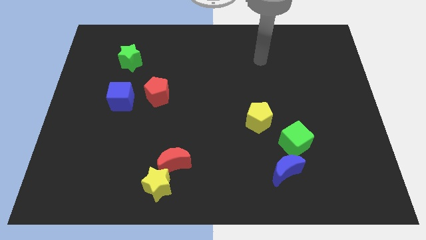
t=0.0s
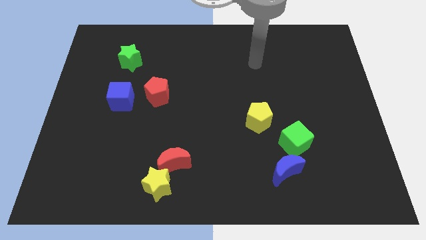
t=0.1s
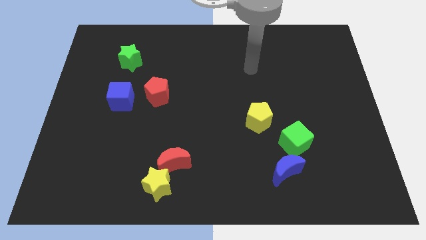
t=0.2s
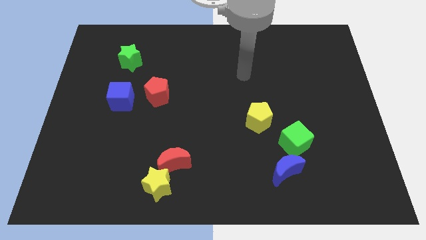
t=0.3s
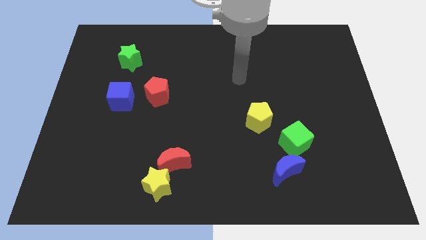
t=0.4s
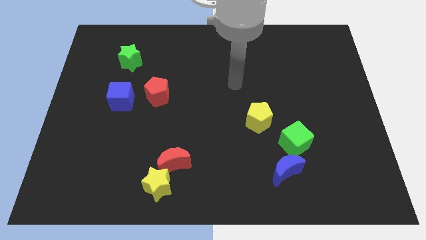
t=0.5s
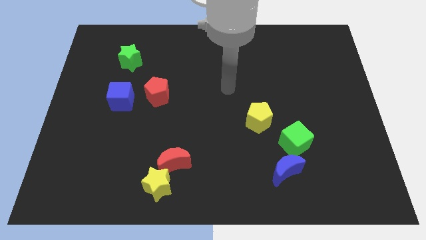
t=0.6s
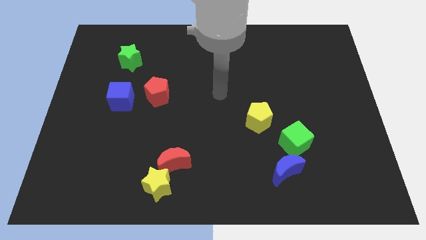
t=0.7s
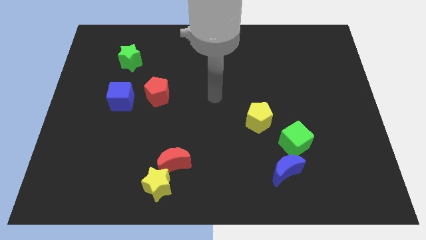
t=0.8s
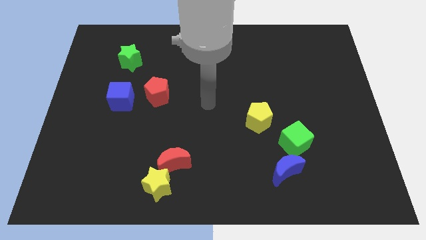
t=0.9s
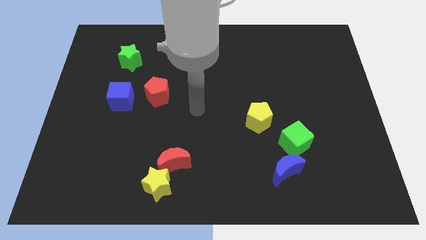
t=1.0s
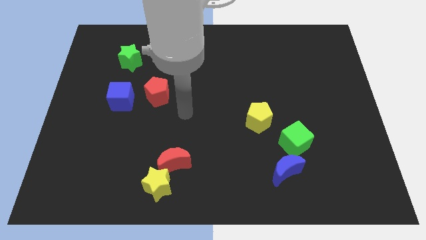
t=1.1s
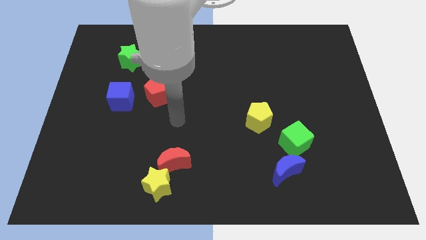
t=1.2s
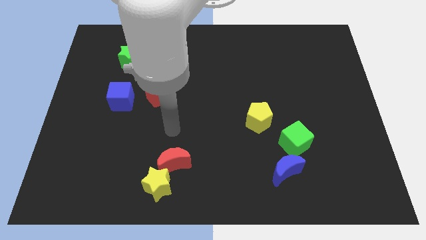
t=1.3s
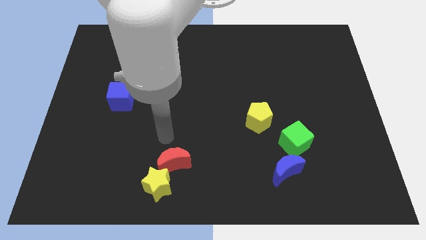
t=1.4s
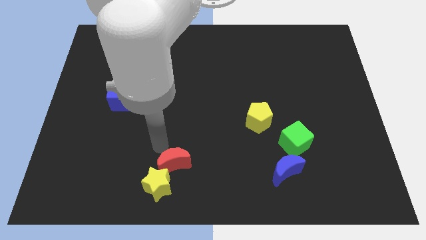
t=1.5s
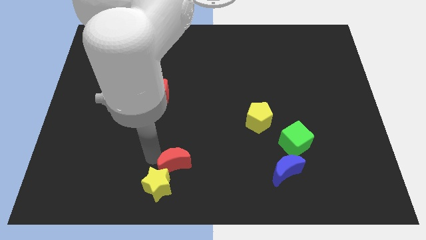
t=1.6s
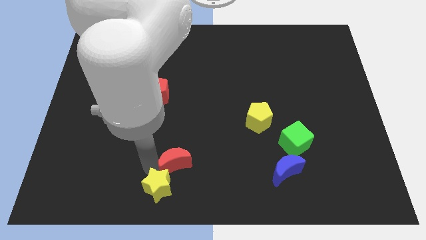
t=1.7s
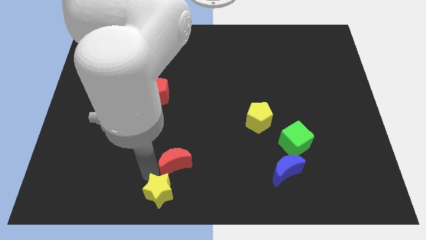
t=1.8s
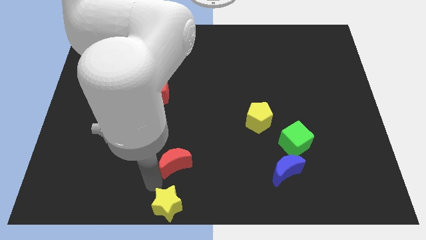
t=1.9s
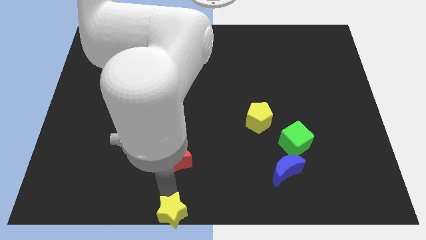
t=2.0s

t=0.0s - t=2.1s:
separate the red moon from the yellow star

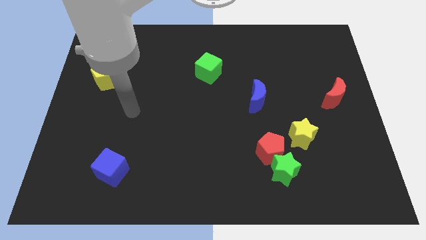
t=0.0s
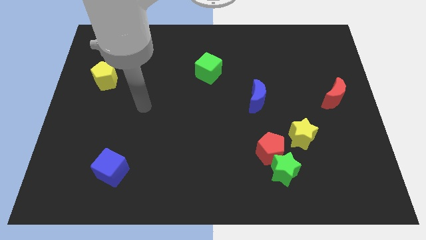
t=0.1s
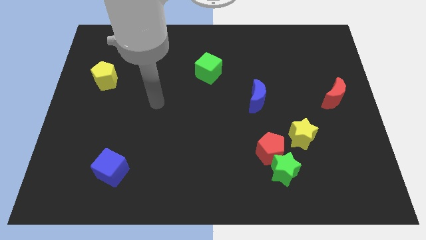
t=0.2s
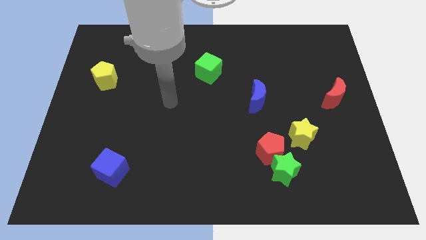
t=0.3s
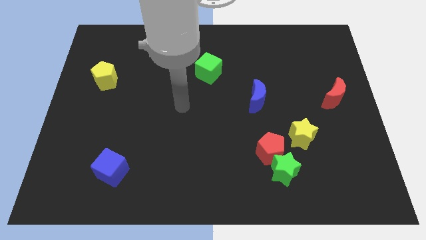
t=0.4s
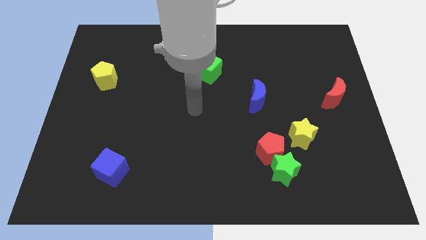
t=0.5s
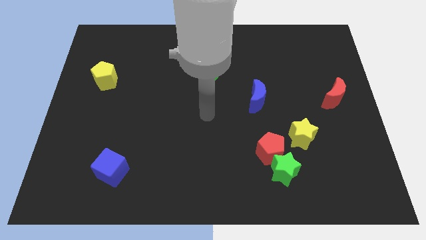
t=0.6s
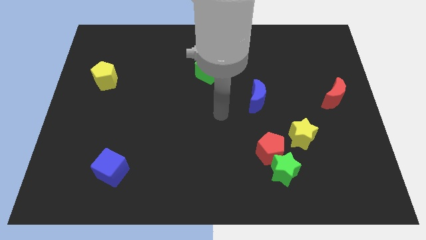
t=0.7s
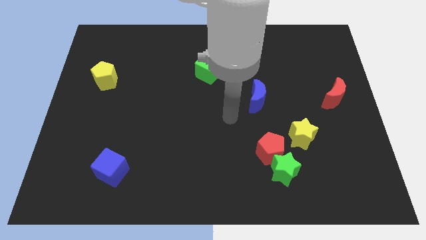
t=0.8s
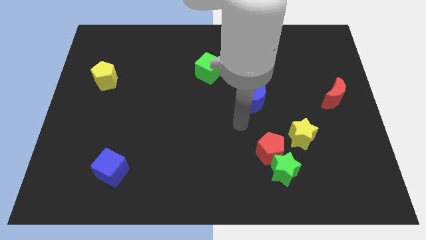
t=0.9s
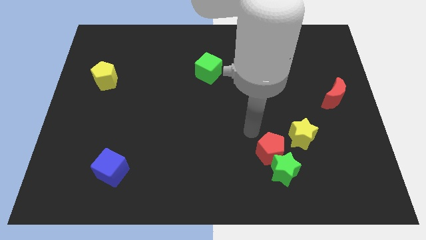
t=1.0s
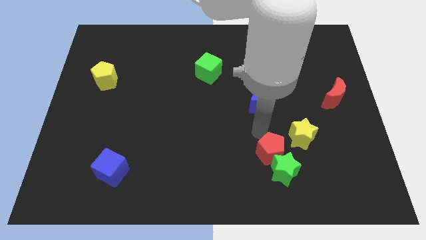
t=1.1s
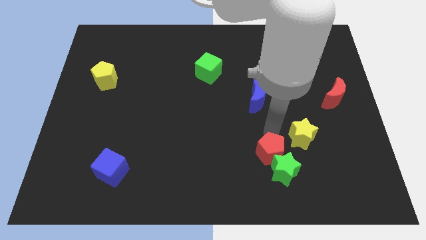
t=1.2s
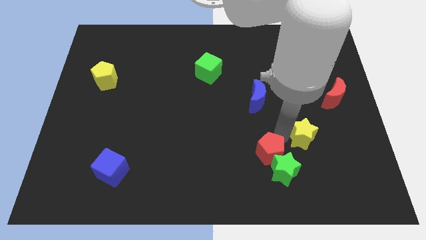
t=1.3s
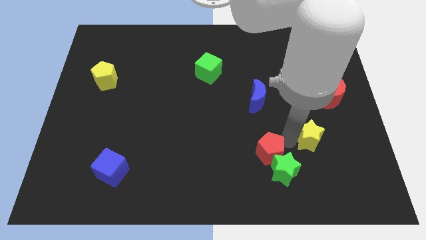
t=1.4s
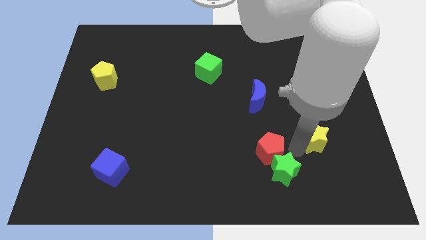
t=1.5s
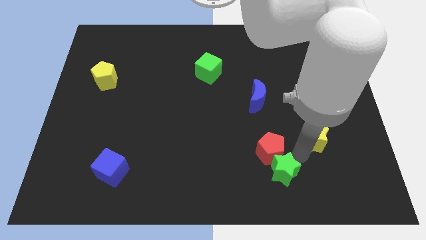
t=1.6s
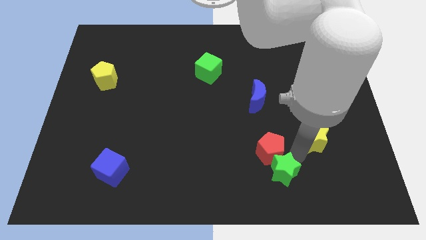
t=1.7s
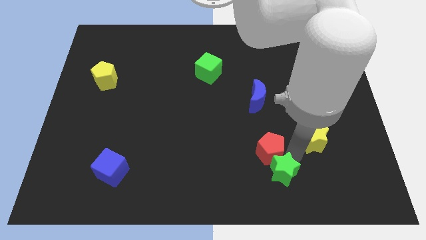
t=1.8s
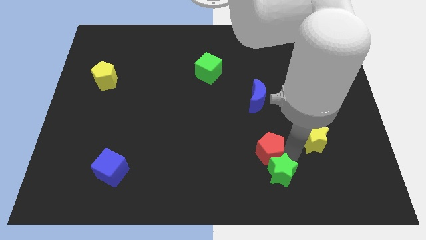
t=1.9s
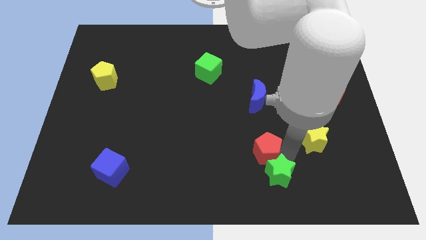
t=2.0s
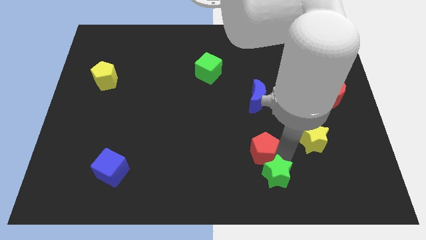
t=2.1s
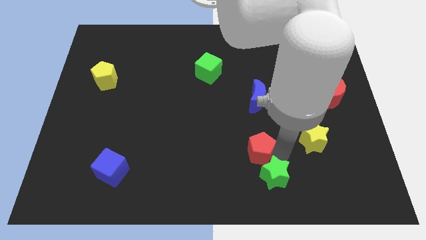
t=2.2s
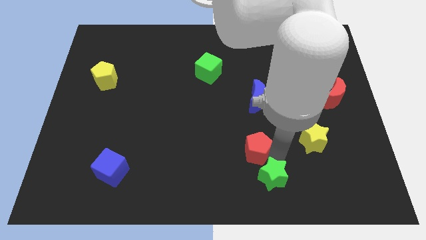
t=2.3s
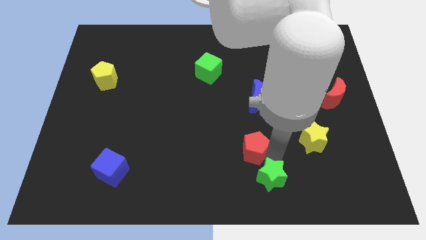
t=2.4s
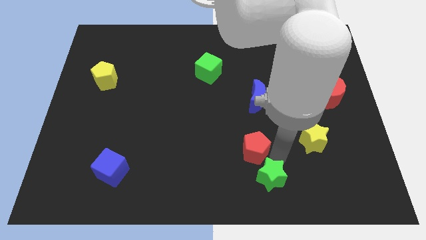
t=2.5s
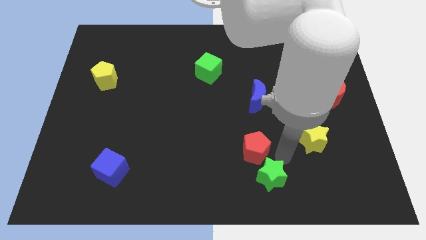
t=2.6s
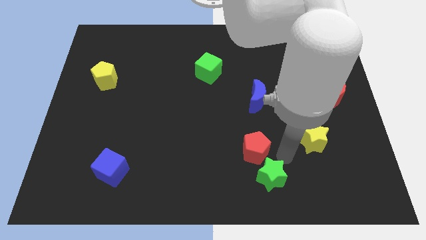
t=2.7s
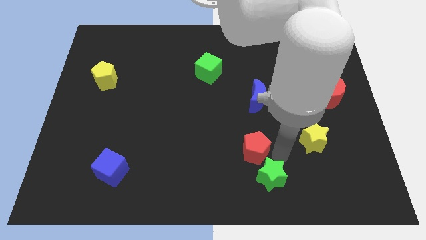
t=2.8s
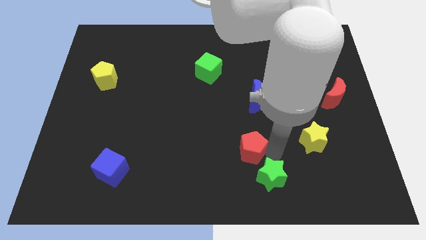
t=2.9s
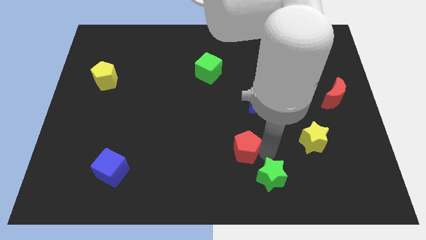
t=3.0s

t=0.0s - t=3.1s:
separate the red pentagon from the green star and yellow star

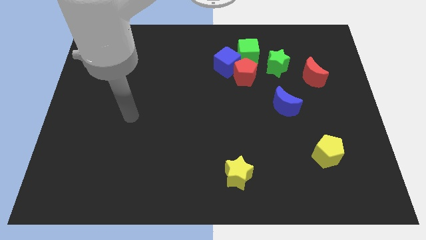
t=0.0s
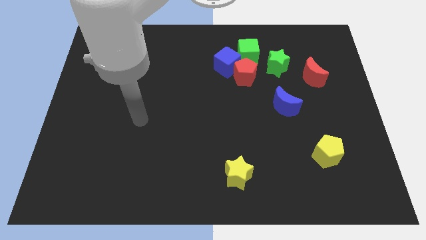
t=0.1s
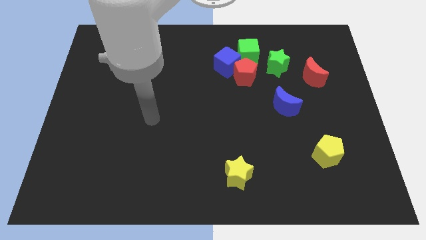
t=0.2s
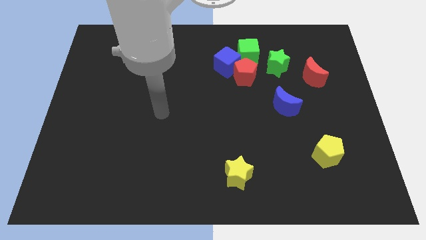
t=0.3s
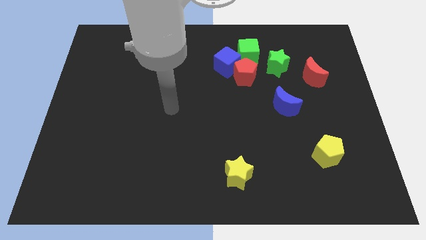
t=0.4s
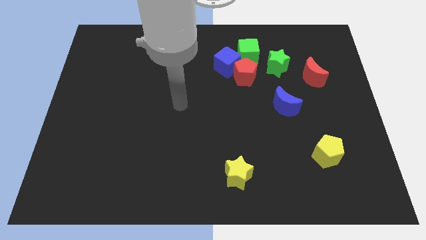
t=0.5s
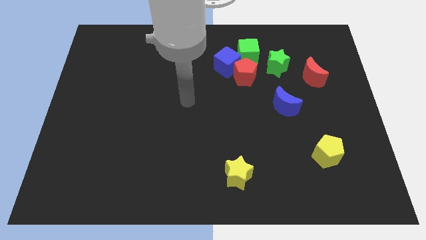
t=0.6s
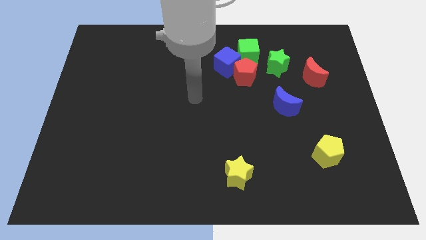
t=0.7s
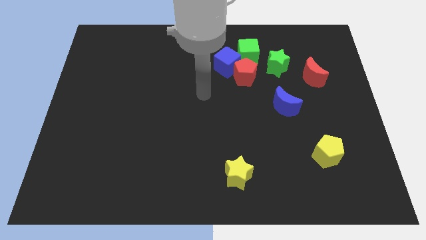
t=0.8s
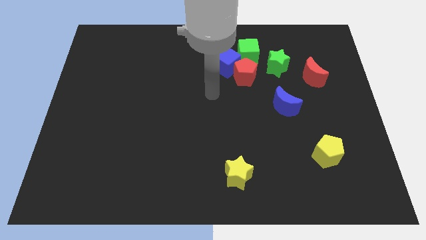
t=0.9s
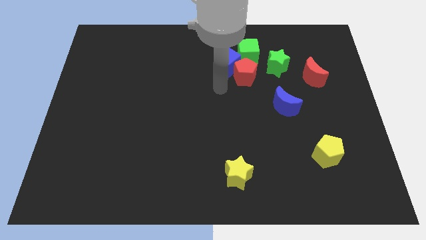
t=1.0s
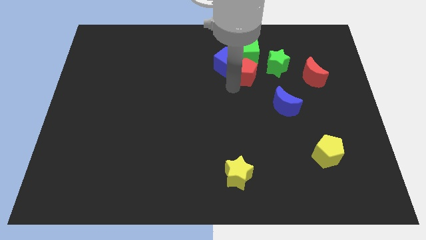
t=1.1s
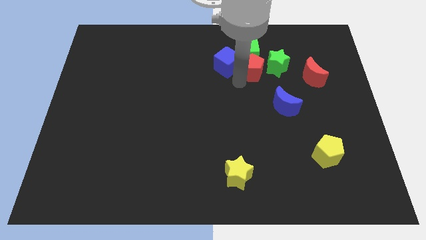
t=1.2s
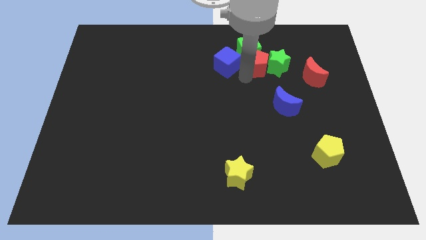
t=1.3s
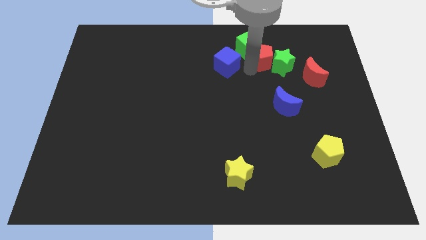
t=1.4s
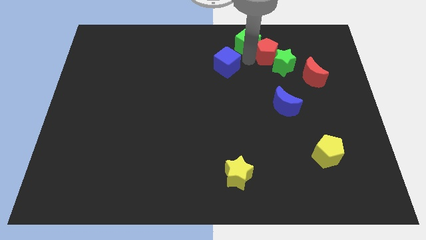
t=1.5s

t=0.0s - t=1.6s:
pull the blue cube apart from the red pentagon and green cube

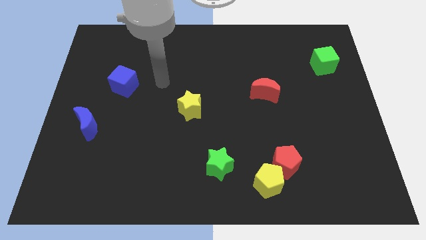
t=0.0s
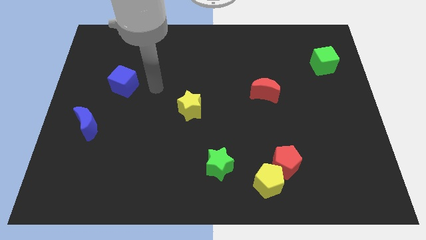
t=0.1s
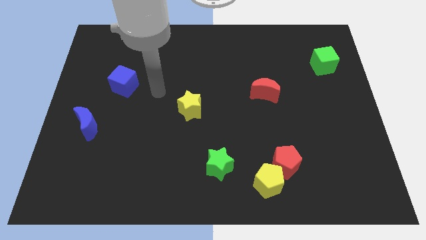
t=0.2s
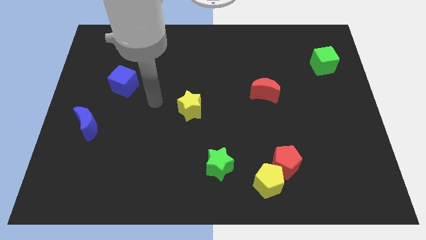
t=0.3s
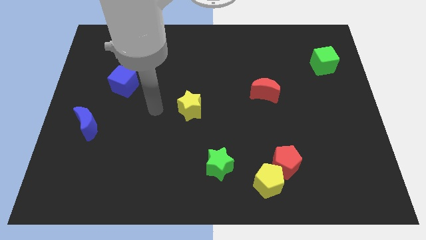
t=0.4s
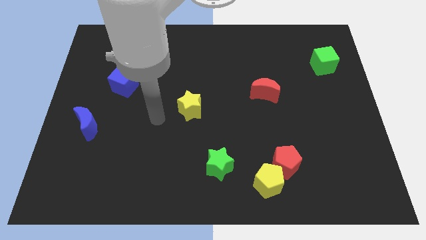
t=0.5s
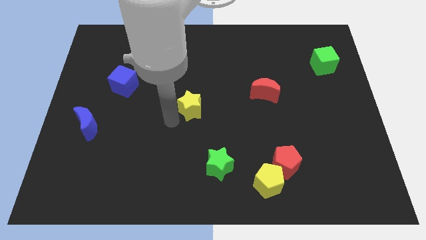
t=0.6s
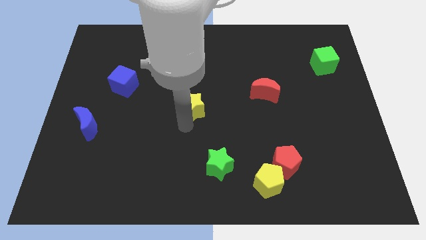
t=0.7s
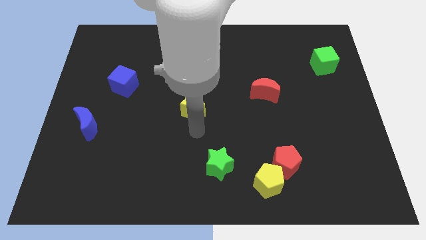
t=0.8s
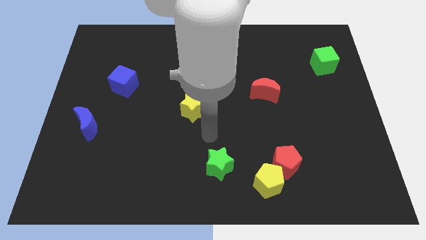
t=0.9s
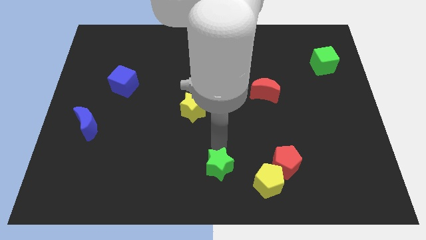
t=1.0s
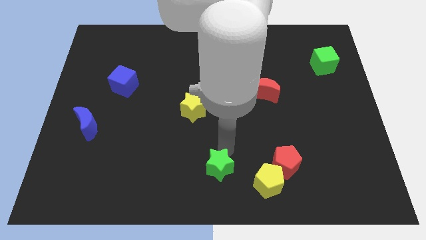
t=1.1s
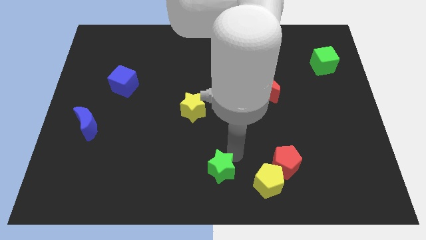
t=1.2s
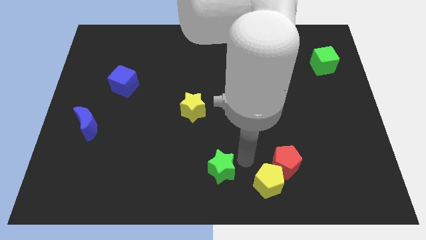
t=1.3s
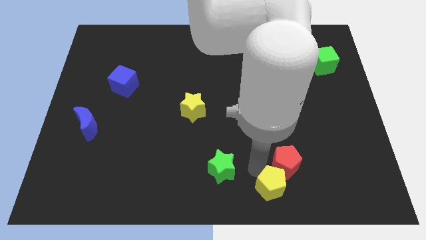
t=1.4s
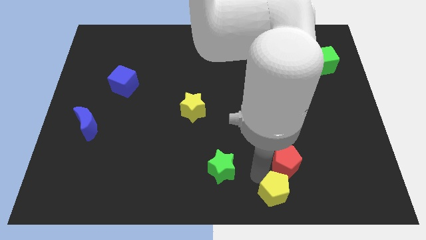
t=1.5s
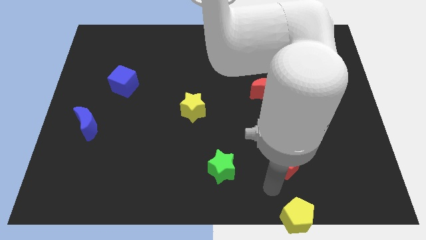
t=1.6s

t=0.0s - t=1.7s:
separate the red pentagon from the yellow pentagon

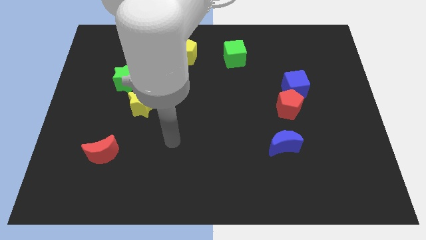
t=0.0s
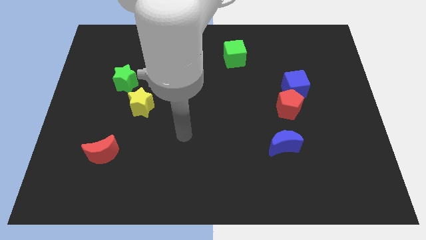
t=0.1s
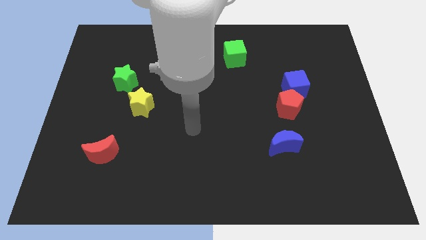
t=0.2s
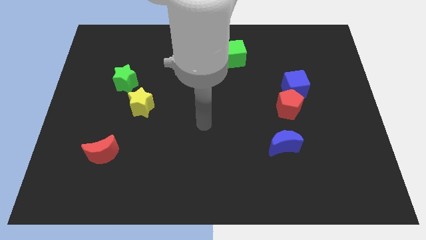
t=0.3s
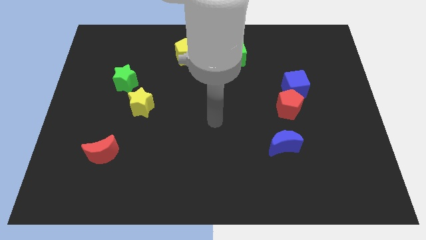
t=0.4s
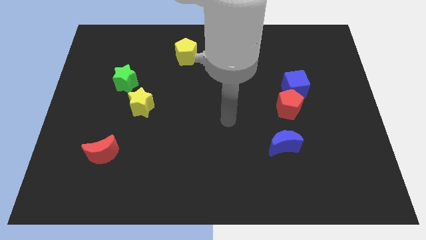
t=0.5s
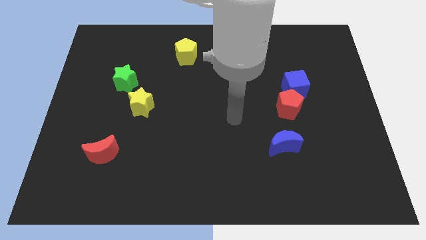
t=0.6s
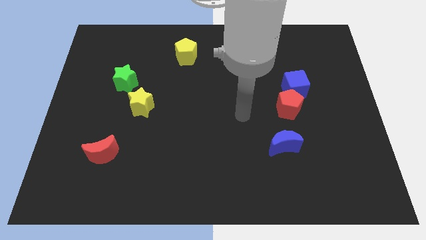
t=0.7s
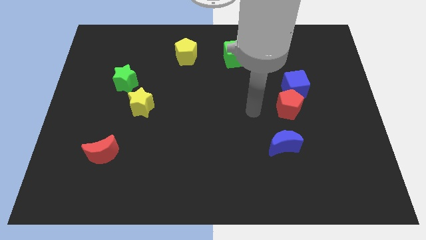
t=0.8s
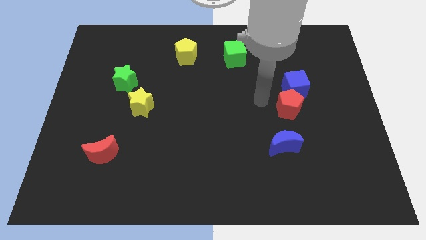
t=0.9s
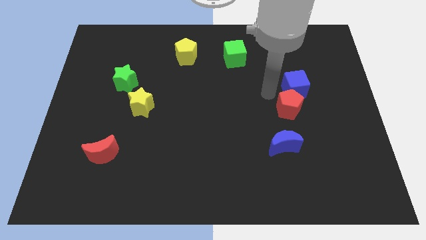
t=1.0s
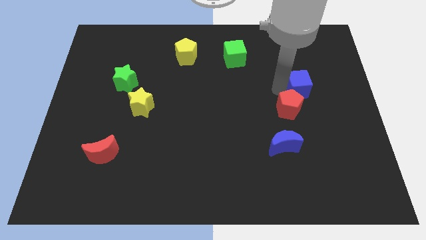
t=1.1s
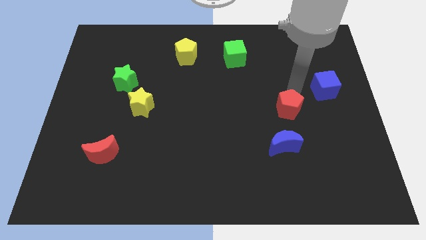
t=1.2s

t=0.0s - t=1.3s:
move the red pentagon away from the blue cube
